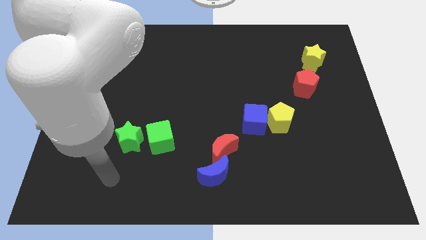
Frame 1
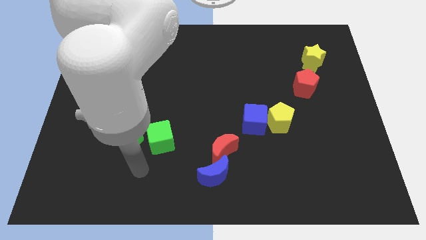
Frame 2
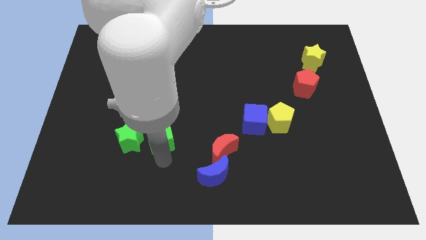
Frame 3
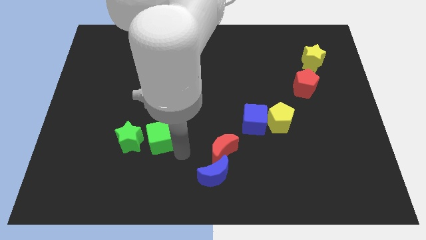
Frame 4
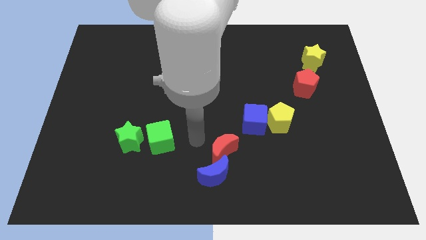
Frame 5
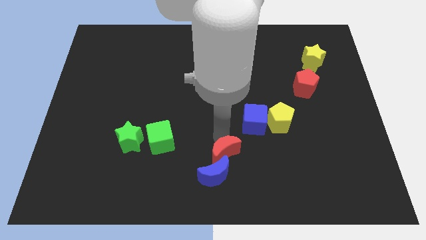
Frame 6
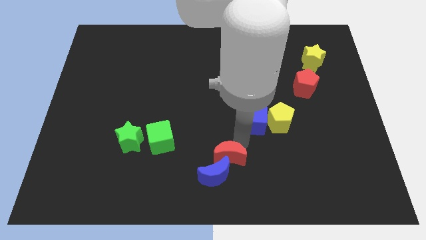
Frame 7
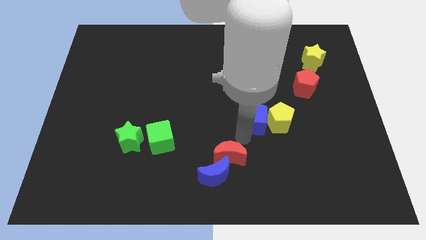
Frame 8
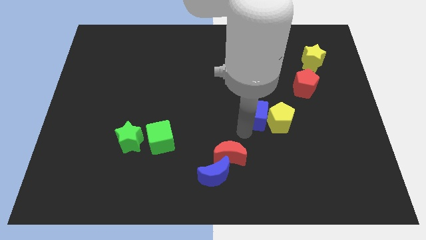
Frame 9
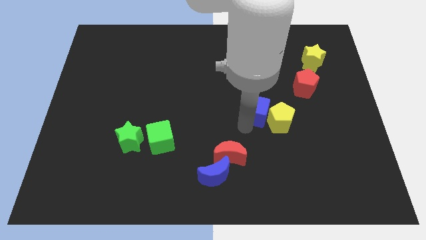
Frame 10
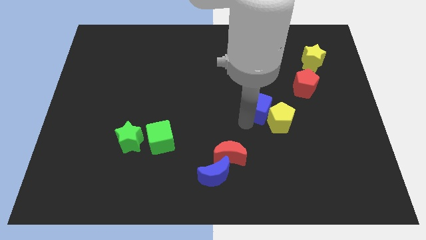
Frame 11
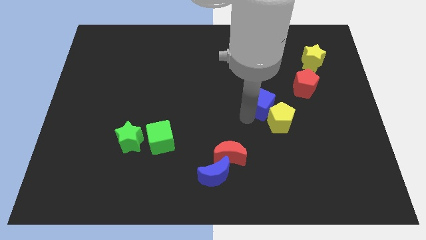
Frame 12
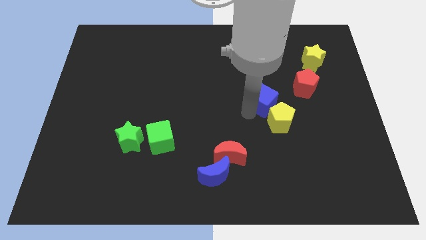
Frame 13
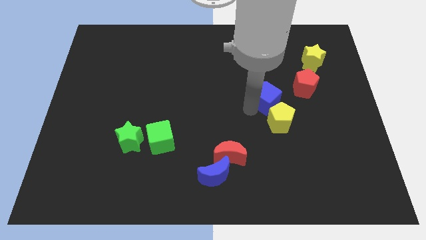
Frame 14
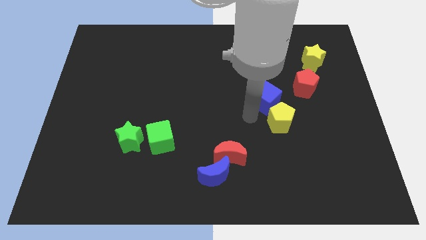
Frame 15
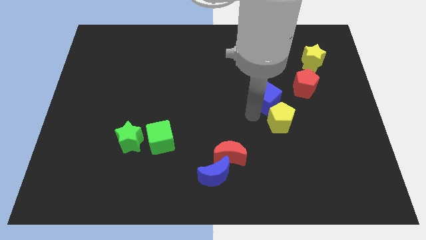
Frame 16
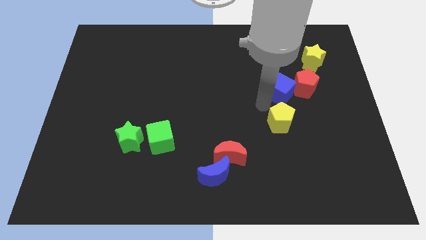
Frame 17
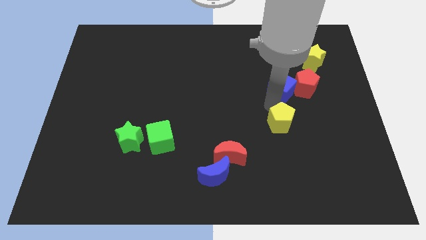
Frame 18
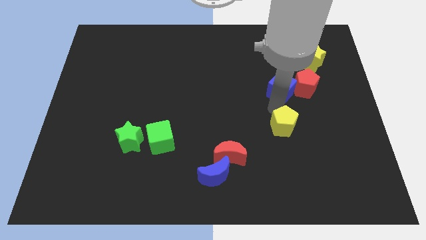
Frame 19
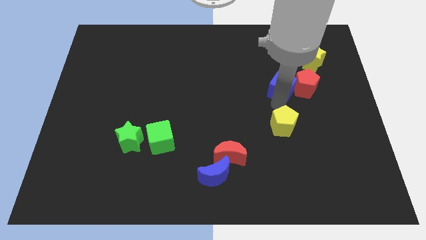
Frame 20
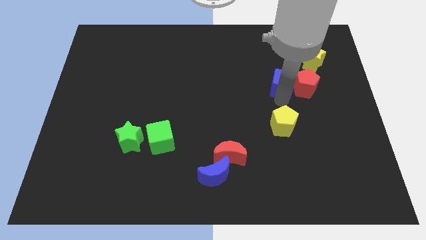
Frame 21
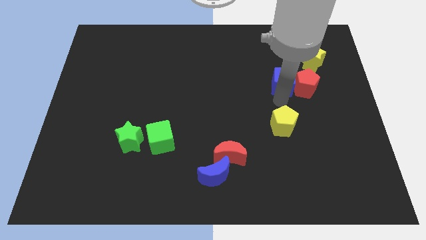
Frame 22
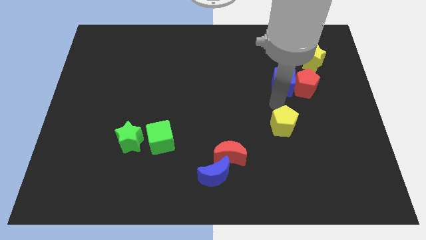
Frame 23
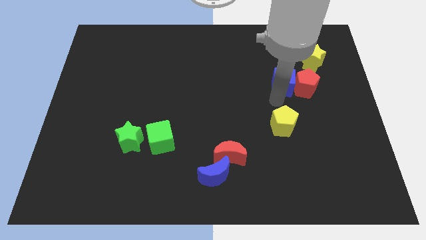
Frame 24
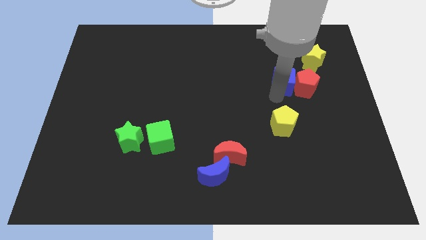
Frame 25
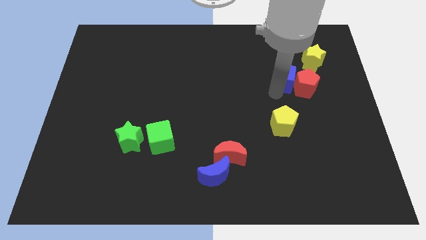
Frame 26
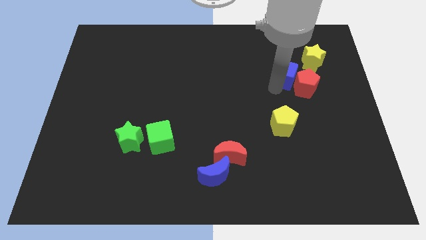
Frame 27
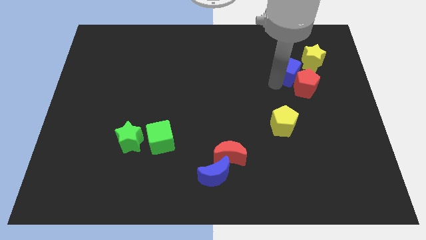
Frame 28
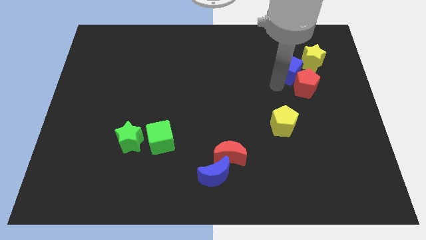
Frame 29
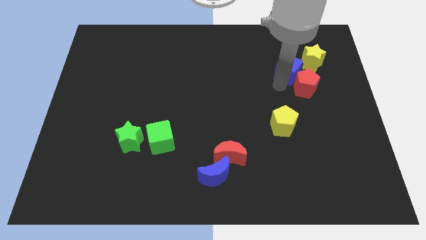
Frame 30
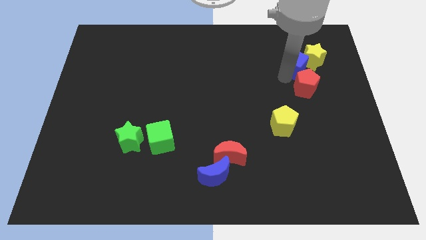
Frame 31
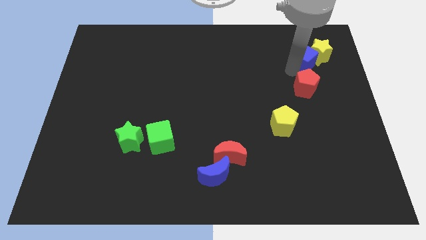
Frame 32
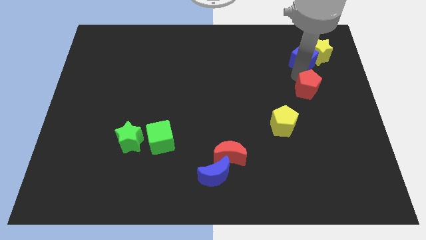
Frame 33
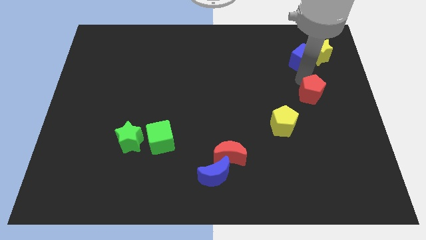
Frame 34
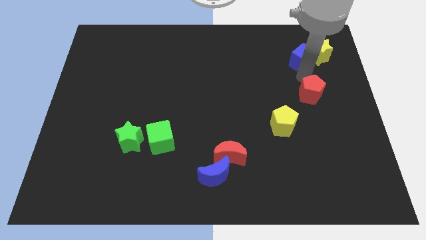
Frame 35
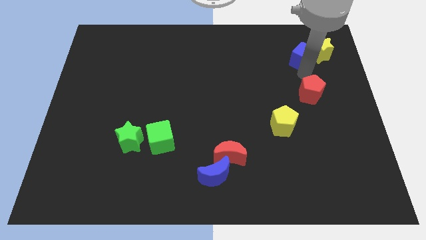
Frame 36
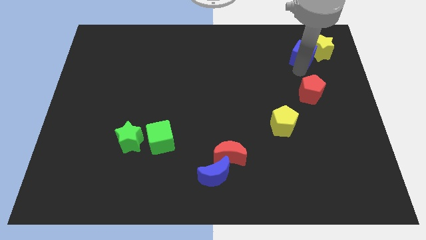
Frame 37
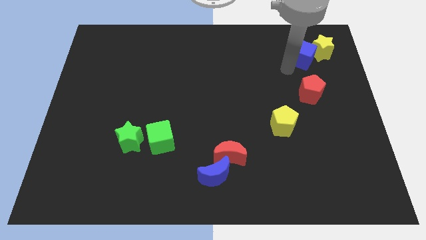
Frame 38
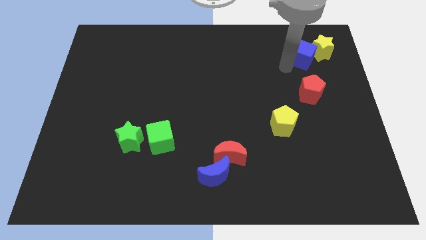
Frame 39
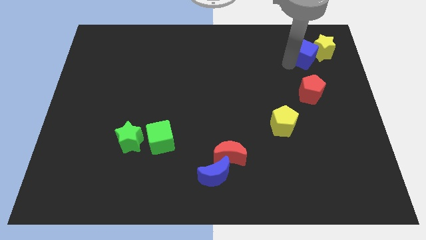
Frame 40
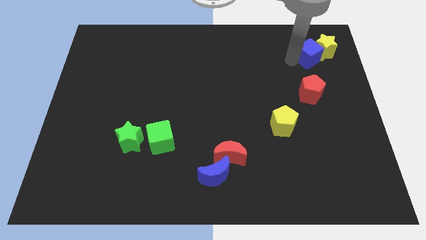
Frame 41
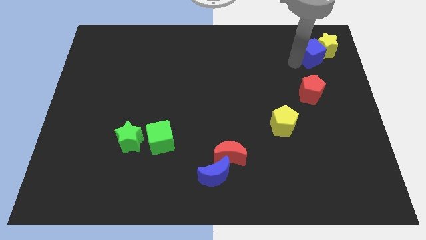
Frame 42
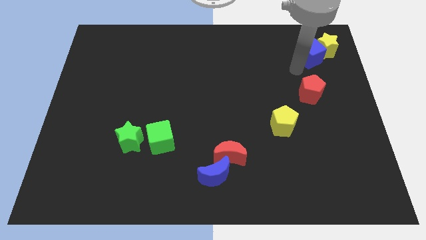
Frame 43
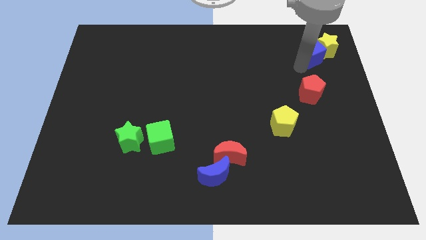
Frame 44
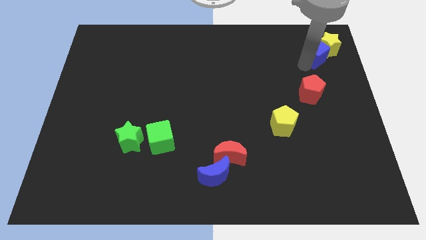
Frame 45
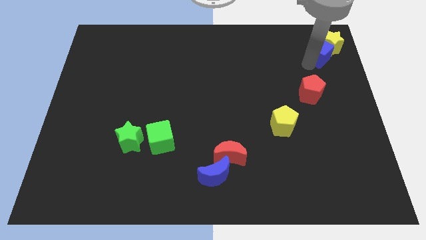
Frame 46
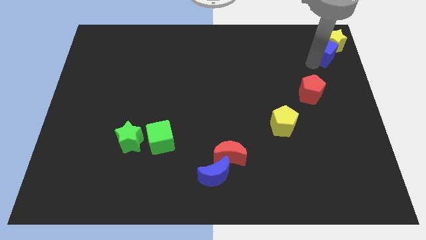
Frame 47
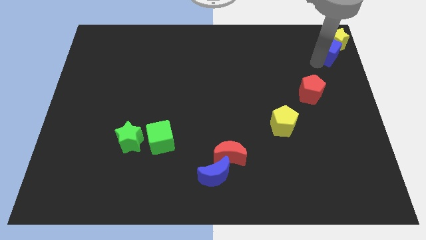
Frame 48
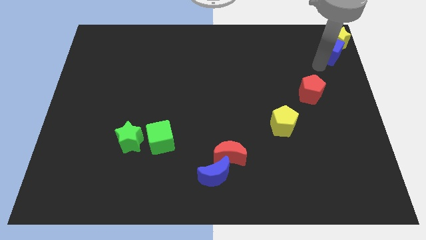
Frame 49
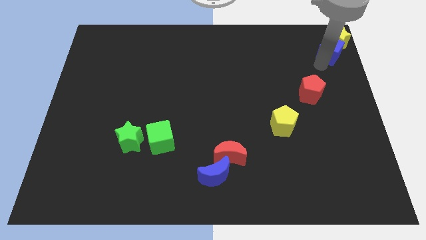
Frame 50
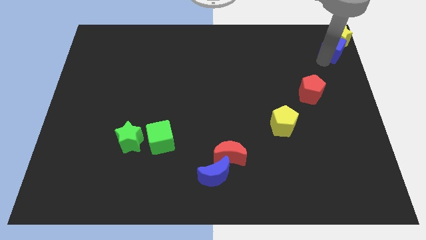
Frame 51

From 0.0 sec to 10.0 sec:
slide the blue cube to the top right of the board

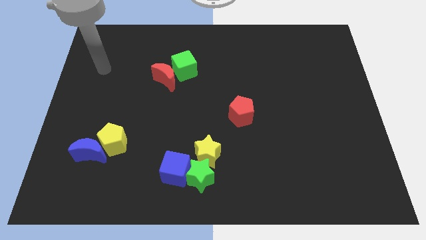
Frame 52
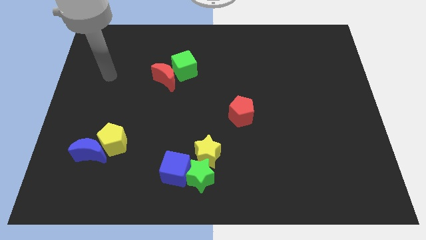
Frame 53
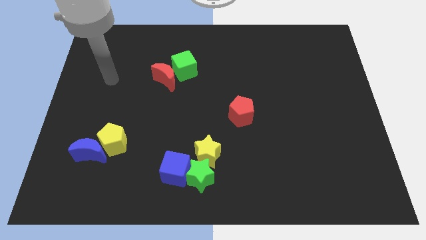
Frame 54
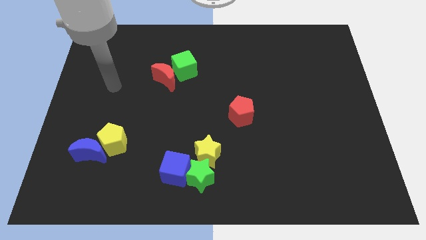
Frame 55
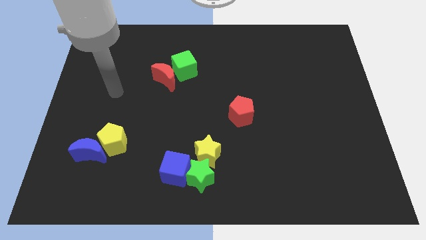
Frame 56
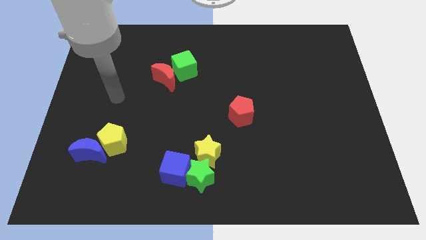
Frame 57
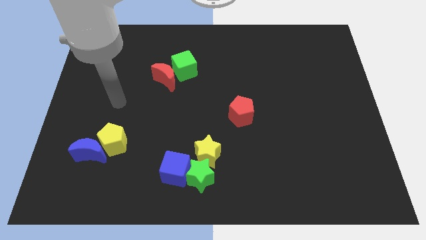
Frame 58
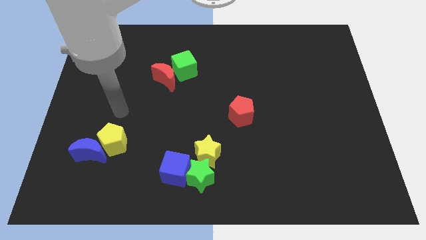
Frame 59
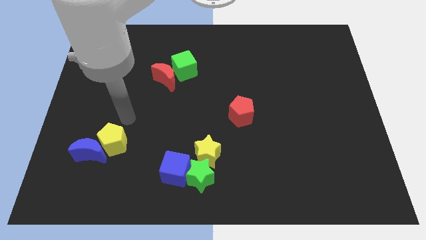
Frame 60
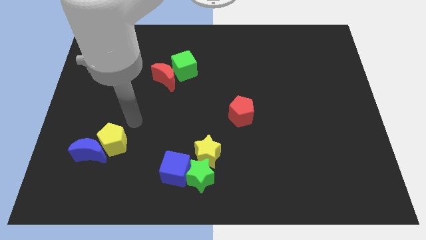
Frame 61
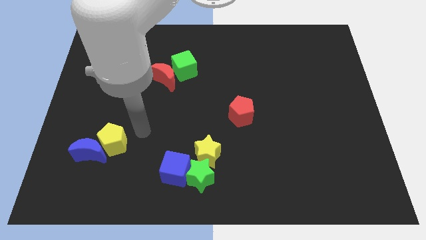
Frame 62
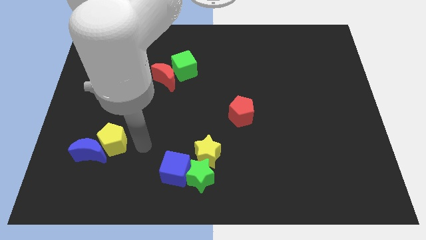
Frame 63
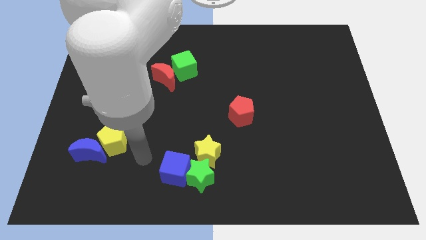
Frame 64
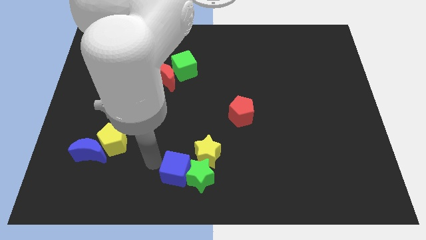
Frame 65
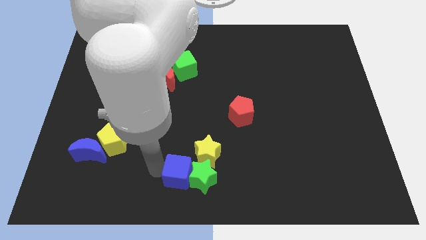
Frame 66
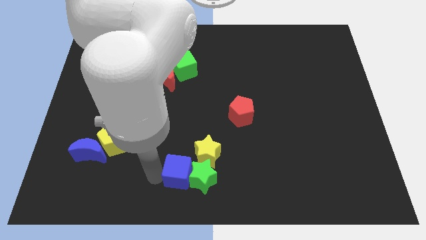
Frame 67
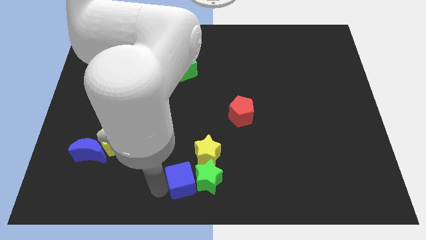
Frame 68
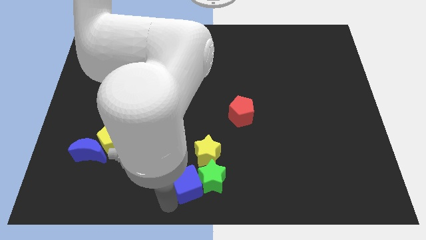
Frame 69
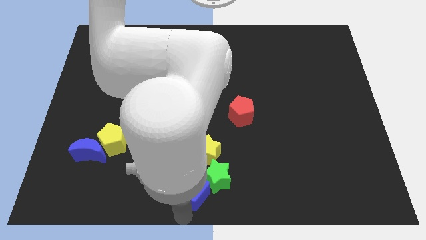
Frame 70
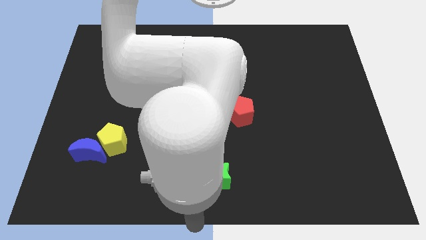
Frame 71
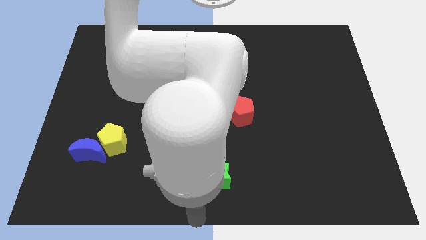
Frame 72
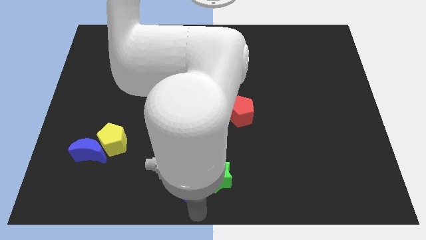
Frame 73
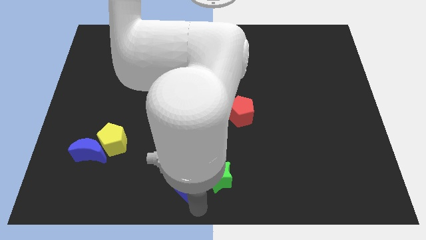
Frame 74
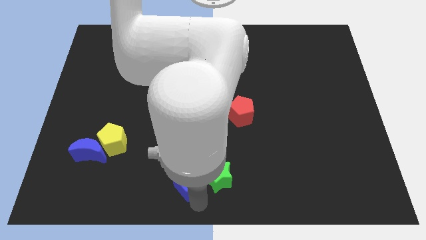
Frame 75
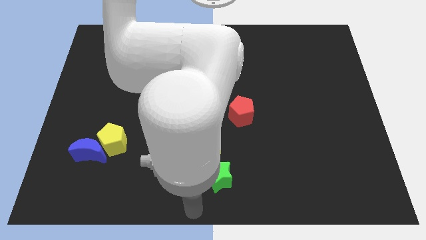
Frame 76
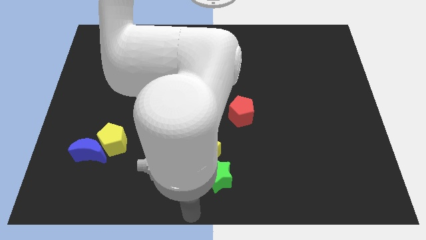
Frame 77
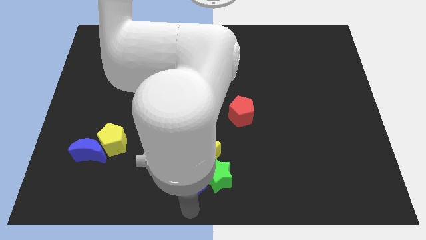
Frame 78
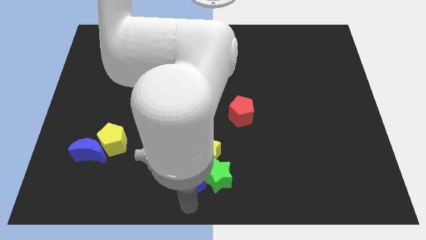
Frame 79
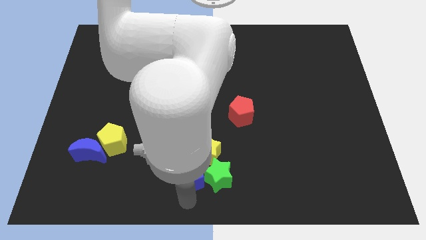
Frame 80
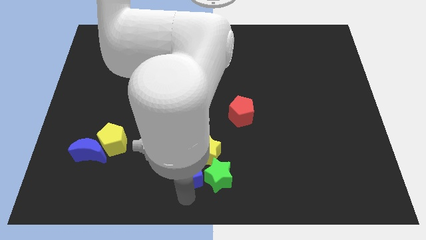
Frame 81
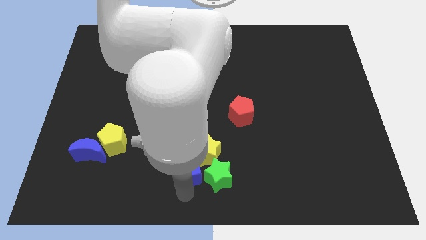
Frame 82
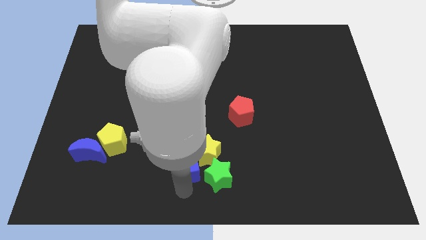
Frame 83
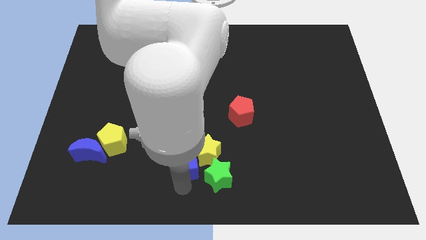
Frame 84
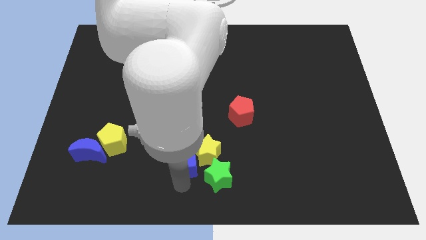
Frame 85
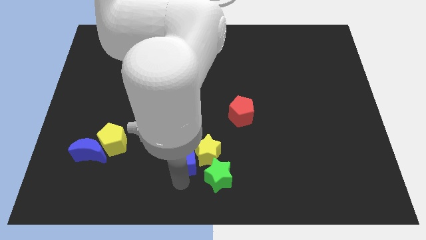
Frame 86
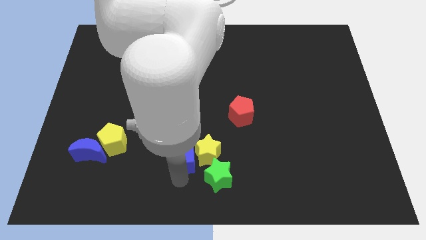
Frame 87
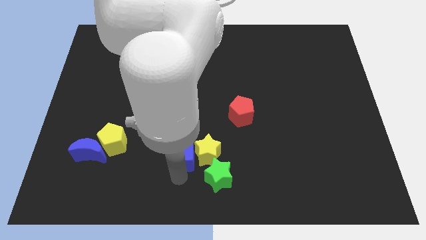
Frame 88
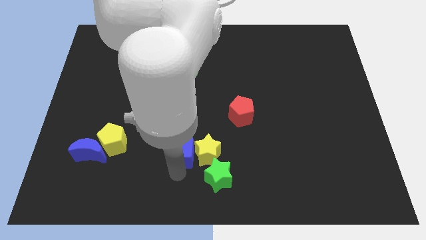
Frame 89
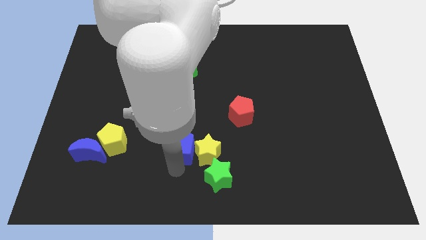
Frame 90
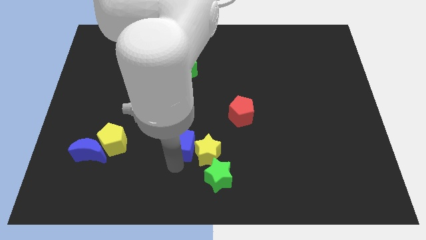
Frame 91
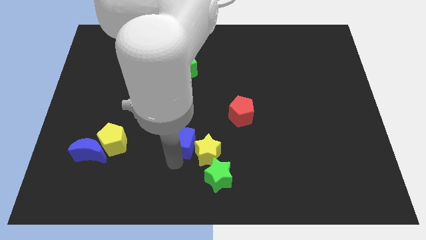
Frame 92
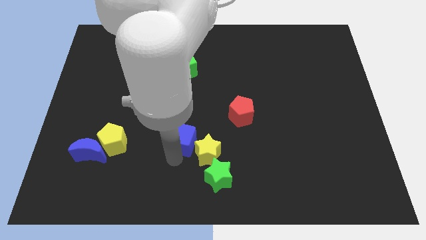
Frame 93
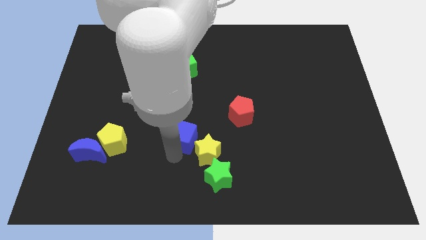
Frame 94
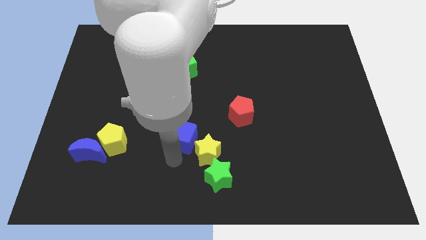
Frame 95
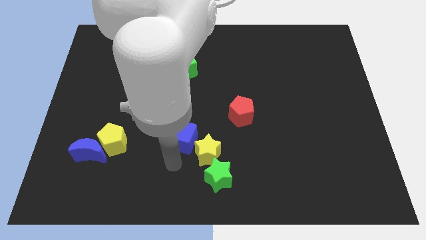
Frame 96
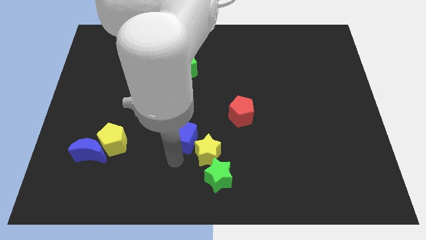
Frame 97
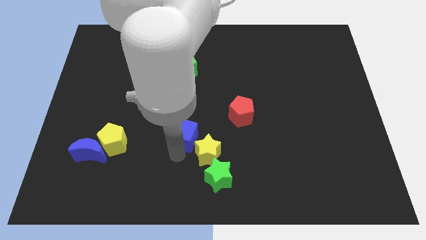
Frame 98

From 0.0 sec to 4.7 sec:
put the blue cube to the center
